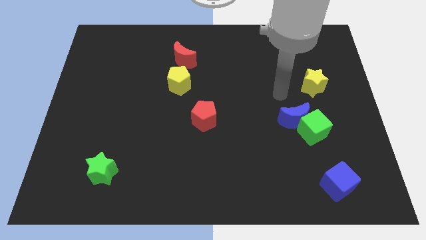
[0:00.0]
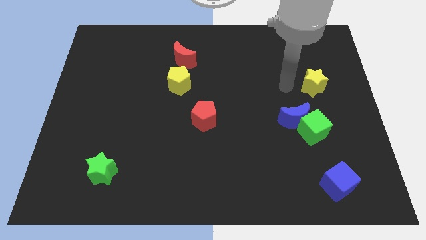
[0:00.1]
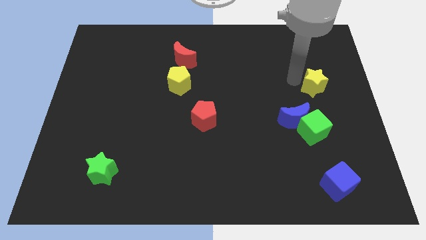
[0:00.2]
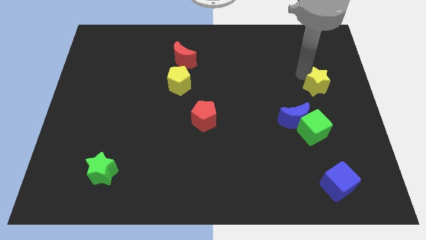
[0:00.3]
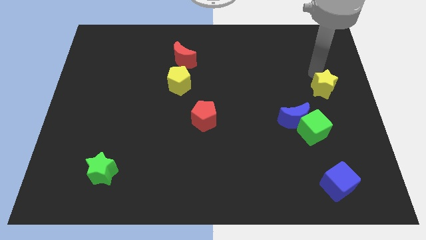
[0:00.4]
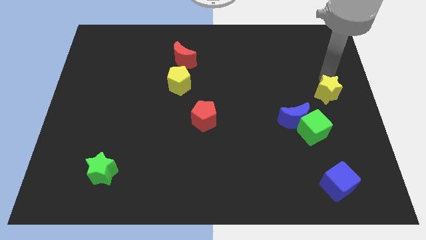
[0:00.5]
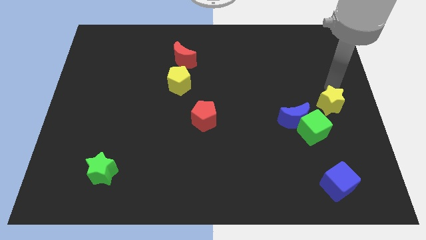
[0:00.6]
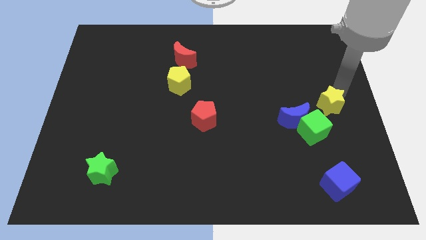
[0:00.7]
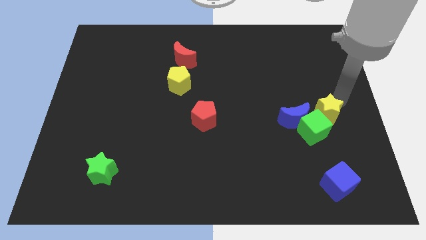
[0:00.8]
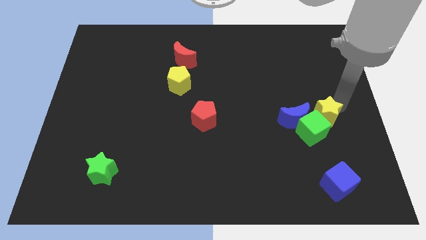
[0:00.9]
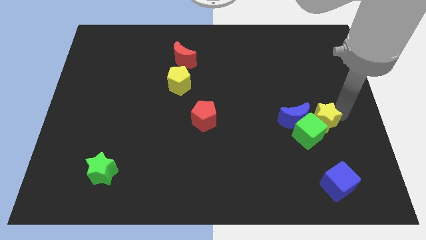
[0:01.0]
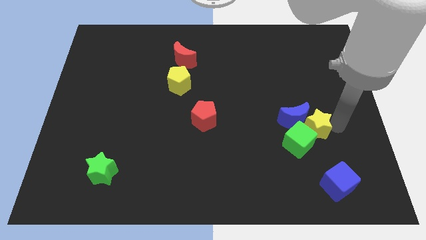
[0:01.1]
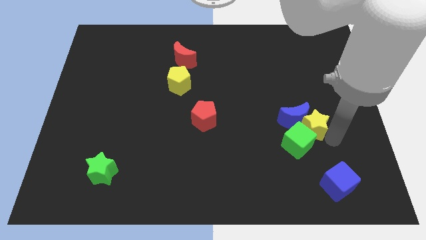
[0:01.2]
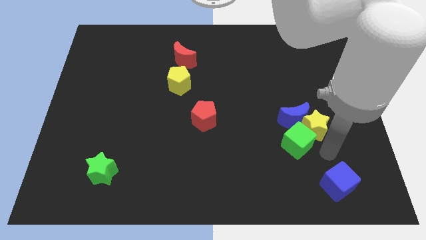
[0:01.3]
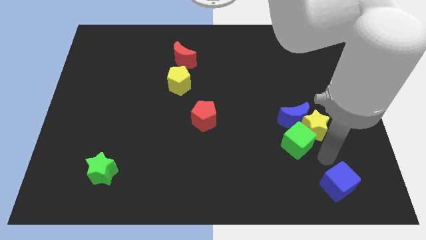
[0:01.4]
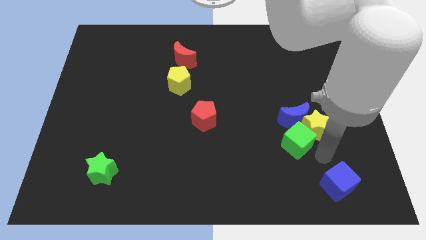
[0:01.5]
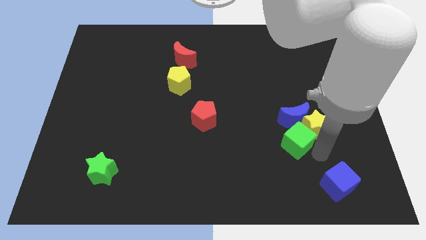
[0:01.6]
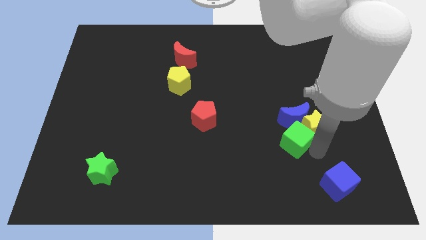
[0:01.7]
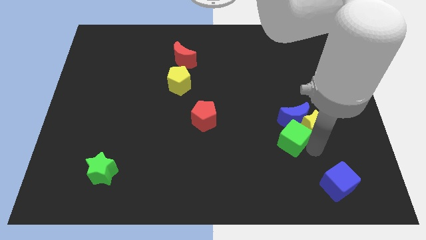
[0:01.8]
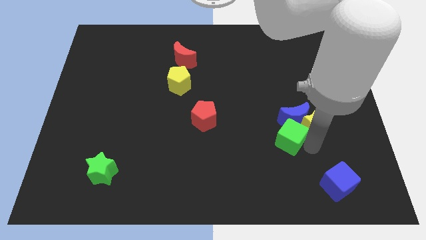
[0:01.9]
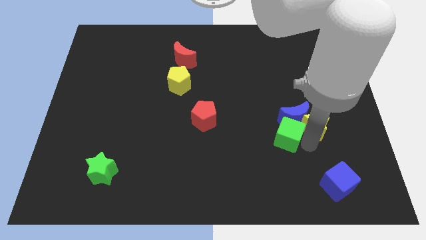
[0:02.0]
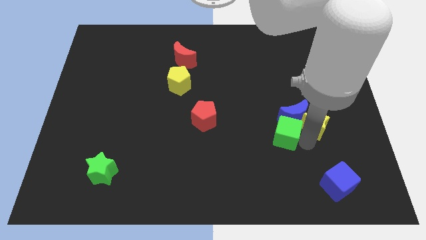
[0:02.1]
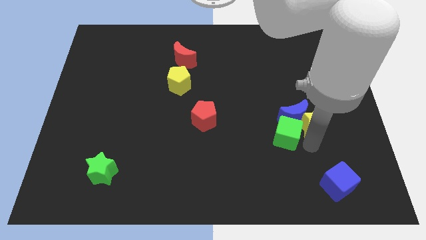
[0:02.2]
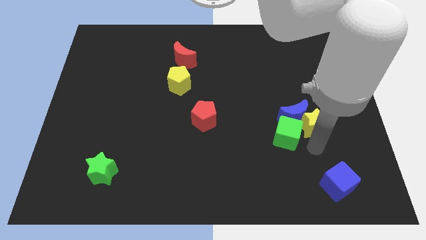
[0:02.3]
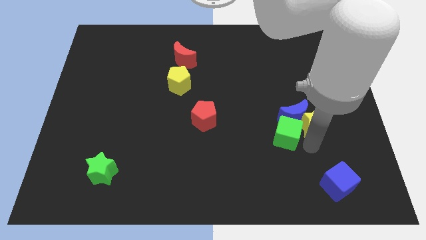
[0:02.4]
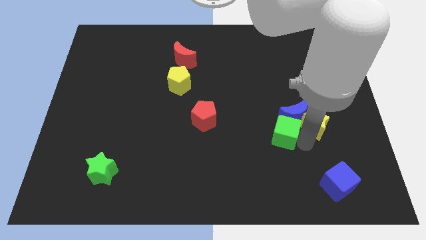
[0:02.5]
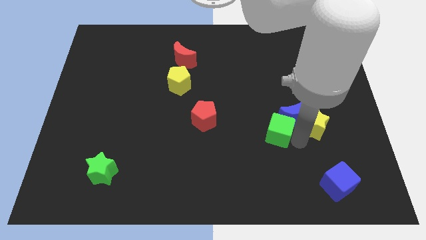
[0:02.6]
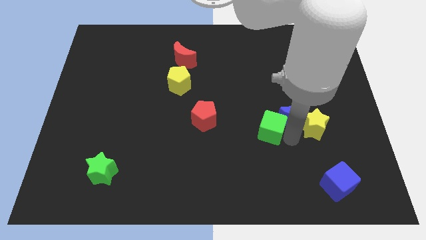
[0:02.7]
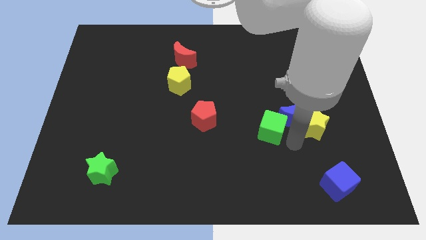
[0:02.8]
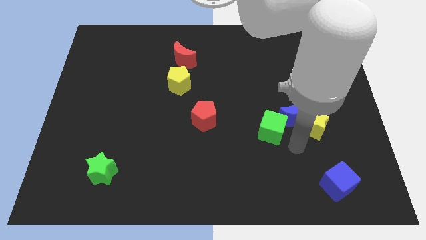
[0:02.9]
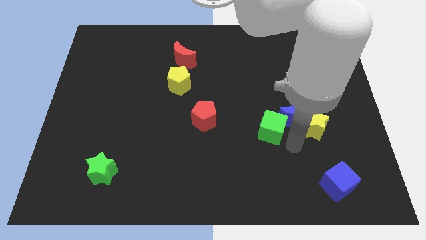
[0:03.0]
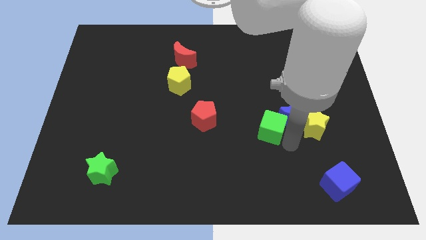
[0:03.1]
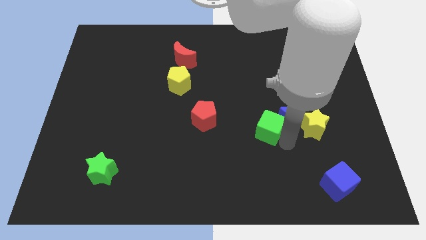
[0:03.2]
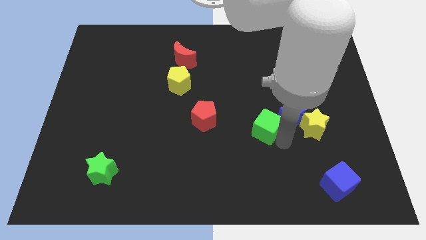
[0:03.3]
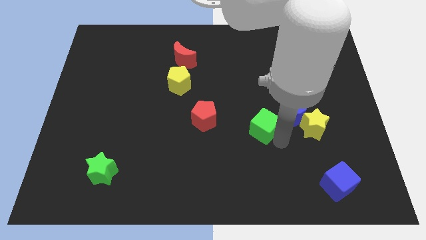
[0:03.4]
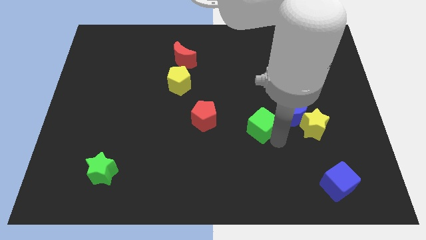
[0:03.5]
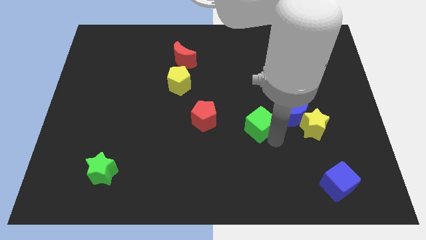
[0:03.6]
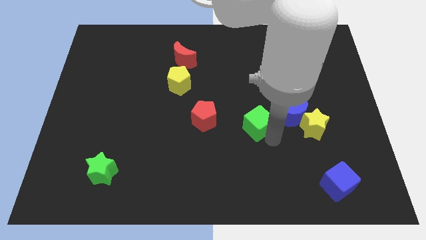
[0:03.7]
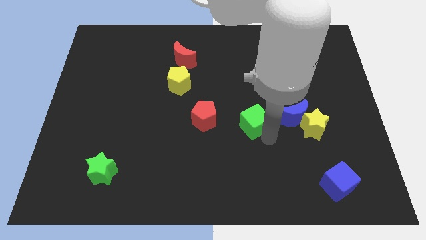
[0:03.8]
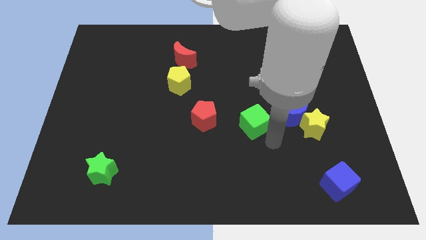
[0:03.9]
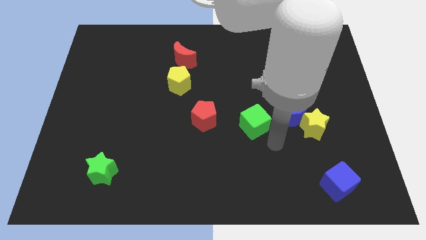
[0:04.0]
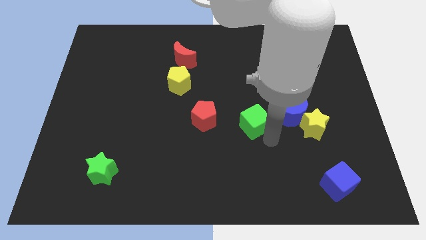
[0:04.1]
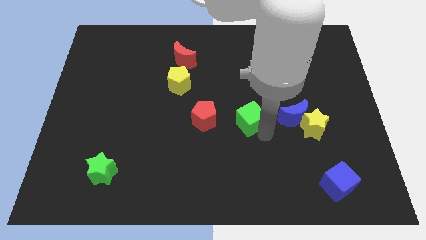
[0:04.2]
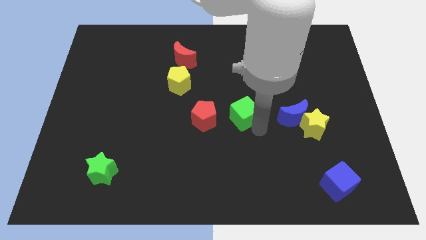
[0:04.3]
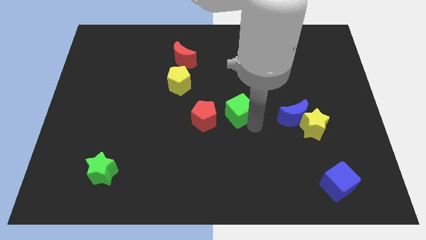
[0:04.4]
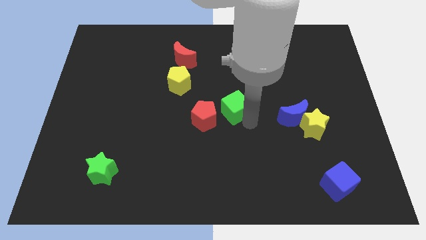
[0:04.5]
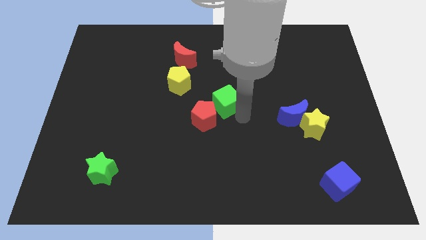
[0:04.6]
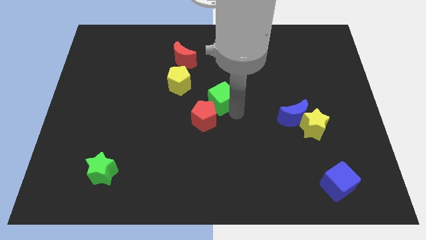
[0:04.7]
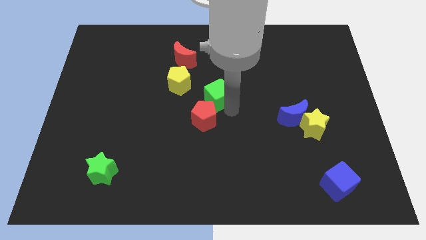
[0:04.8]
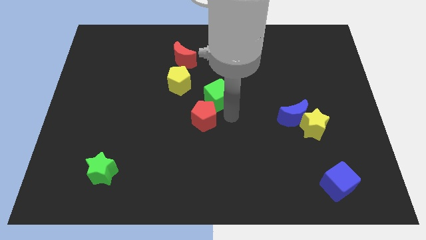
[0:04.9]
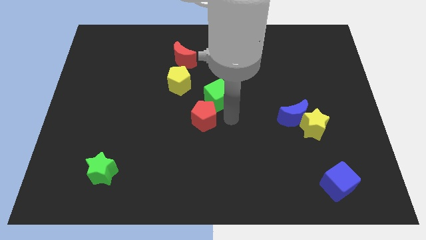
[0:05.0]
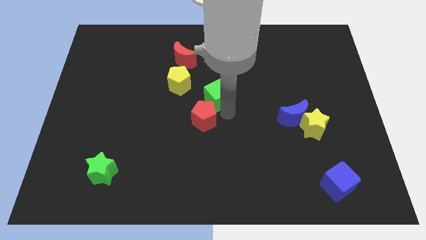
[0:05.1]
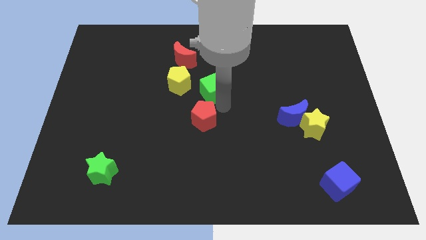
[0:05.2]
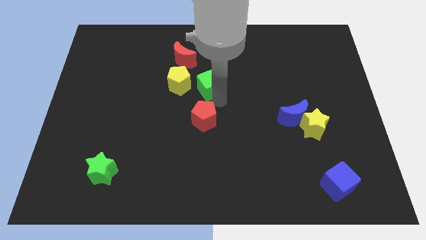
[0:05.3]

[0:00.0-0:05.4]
push the green cube to the bottom right of the red moon

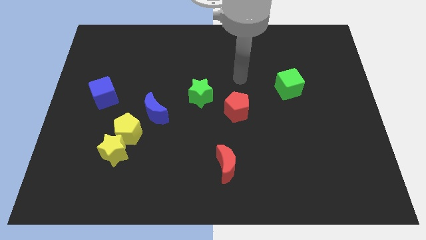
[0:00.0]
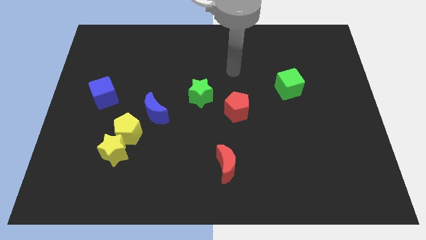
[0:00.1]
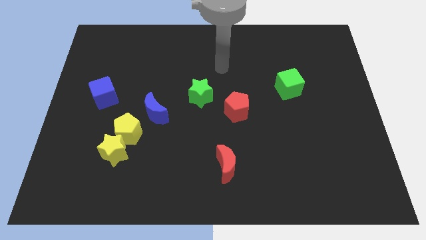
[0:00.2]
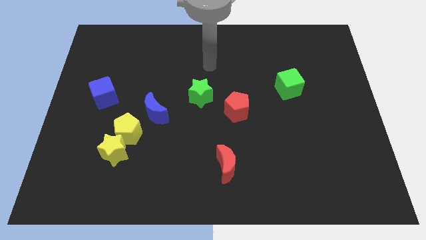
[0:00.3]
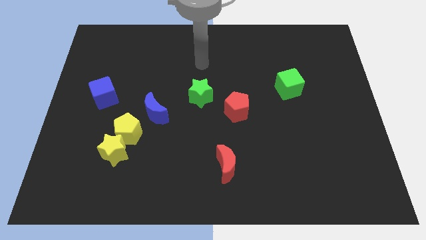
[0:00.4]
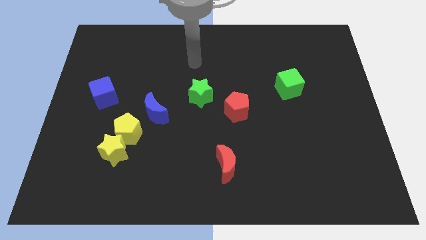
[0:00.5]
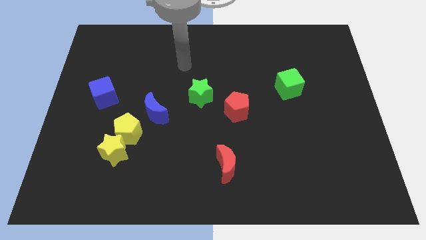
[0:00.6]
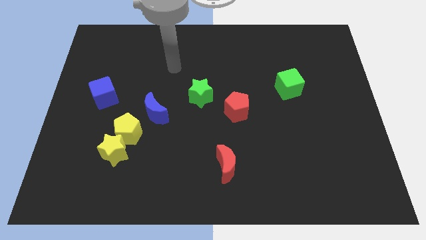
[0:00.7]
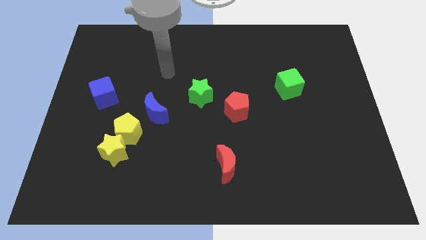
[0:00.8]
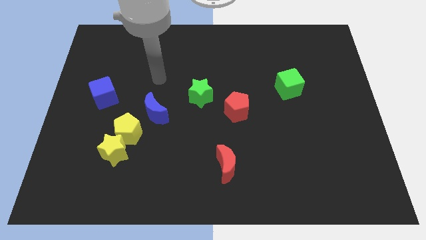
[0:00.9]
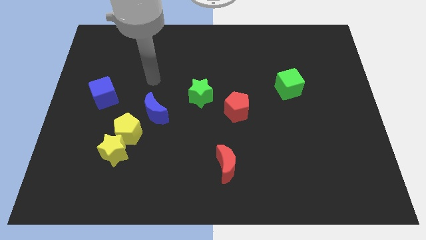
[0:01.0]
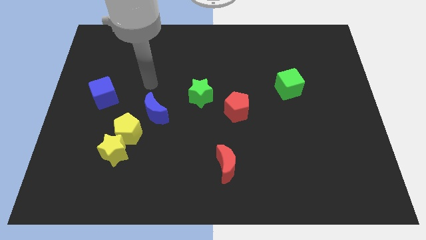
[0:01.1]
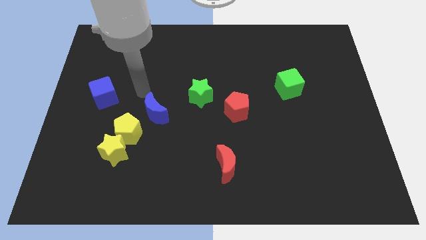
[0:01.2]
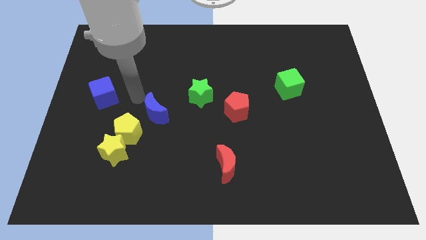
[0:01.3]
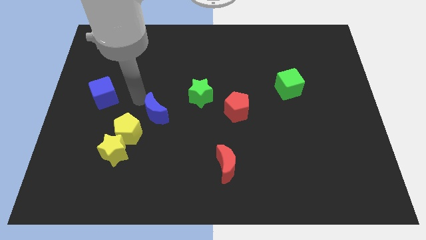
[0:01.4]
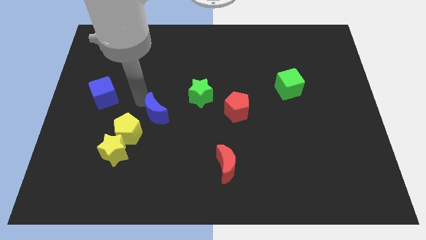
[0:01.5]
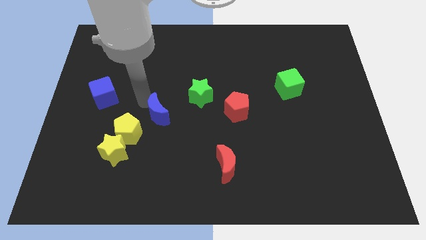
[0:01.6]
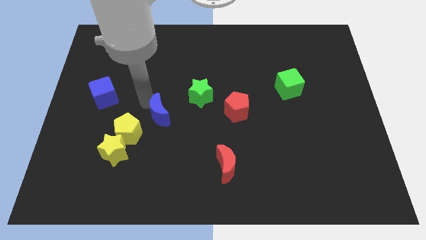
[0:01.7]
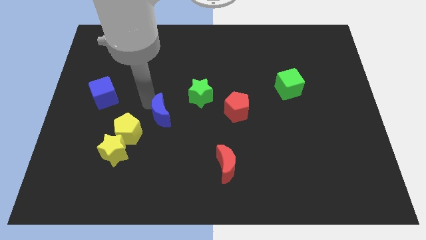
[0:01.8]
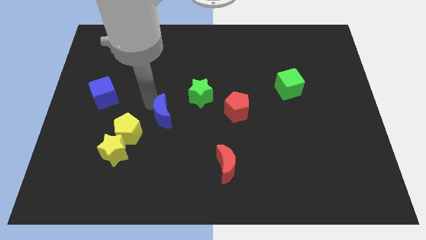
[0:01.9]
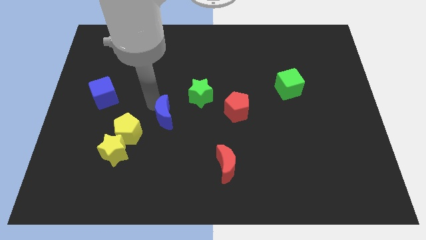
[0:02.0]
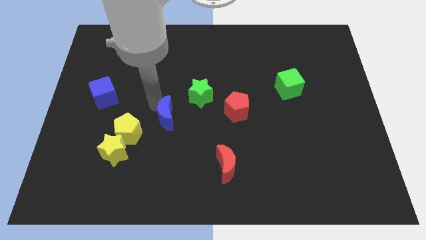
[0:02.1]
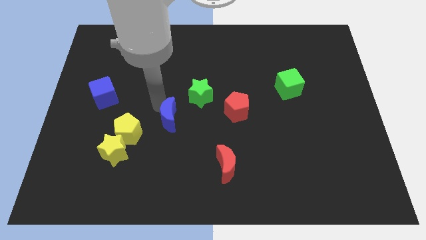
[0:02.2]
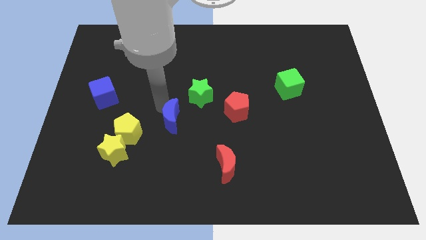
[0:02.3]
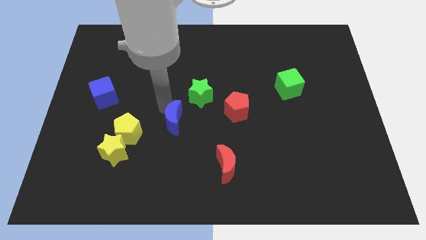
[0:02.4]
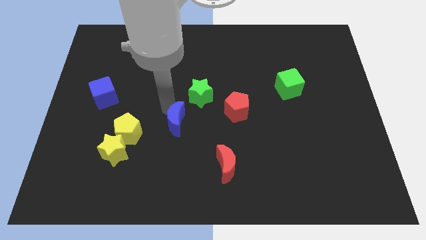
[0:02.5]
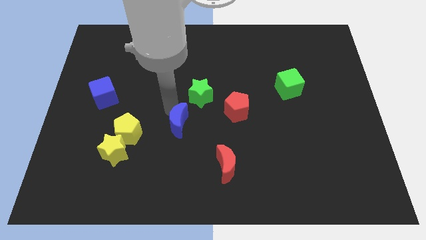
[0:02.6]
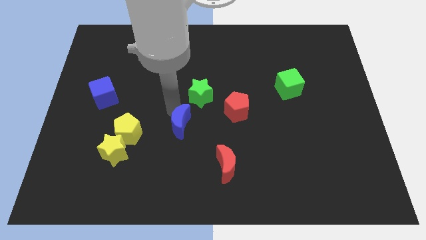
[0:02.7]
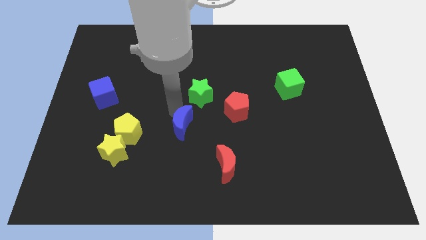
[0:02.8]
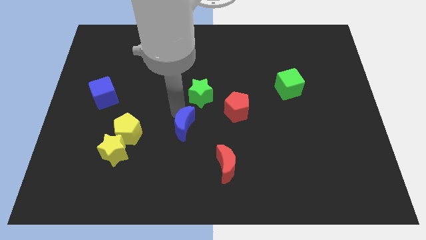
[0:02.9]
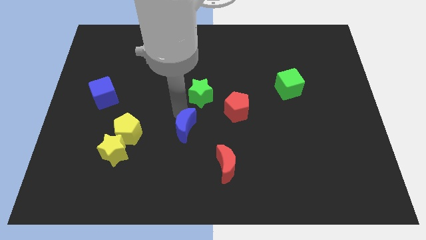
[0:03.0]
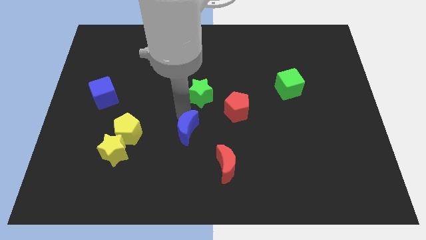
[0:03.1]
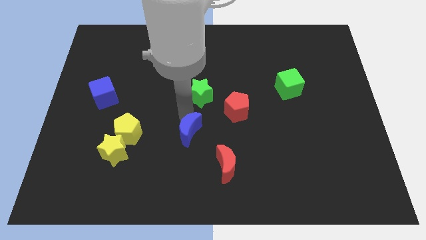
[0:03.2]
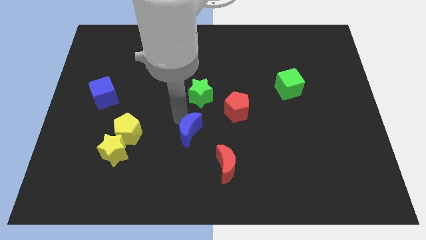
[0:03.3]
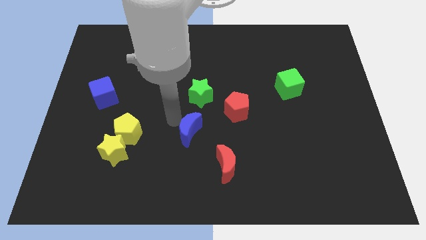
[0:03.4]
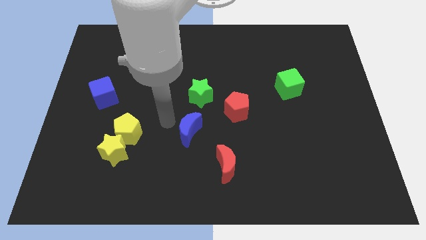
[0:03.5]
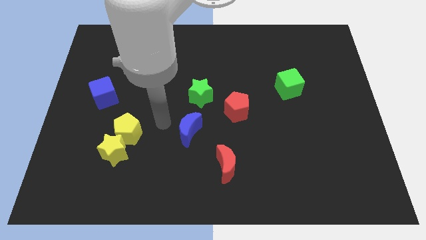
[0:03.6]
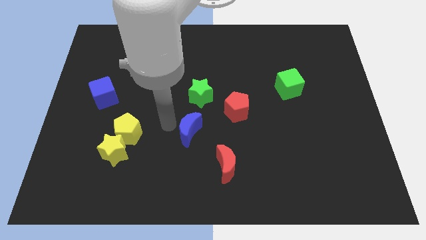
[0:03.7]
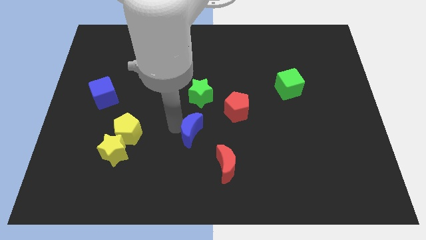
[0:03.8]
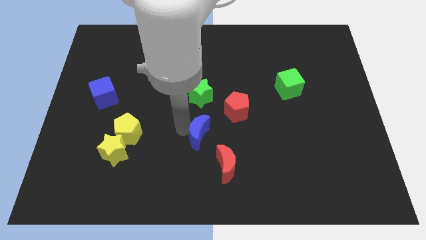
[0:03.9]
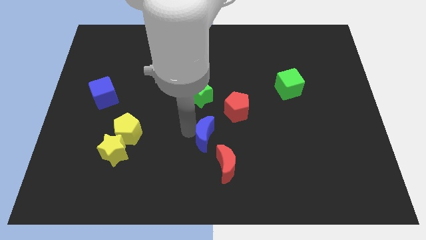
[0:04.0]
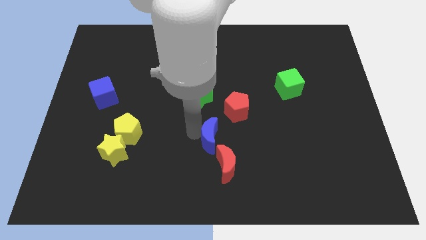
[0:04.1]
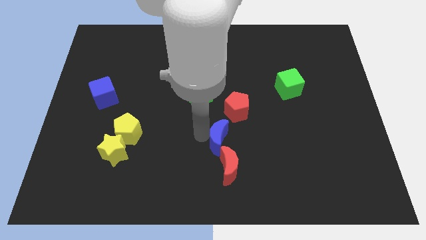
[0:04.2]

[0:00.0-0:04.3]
move the blue moon to the bottom side of the red pentagon
